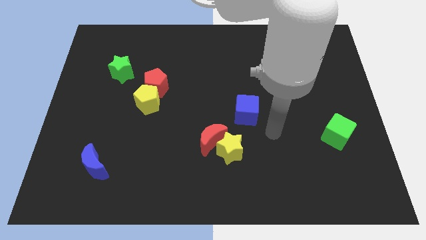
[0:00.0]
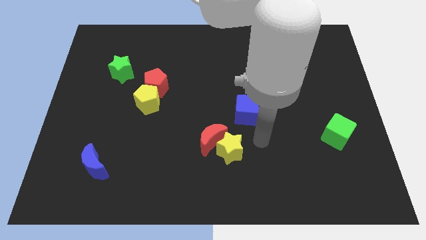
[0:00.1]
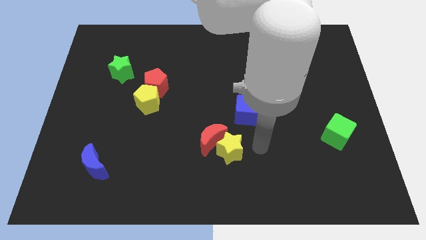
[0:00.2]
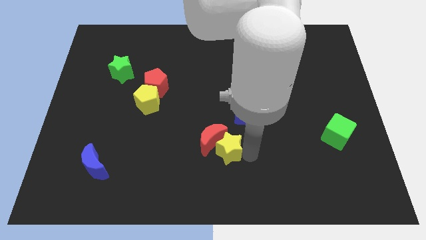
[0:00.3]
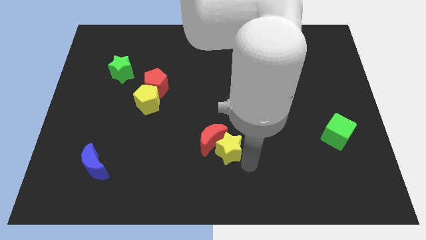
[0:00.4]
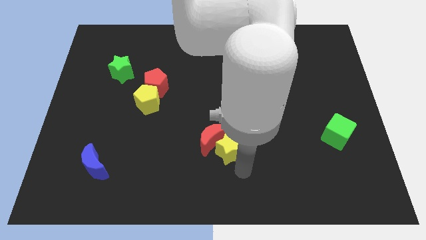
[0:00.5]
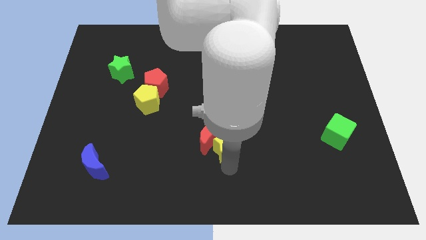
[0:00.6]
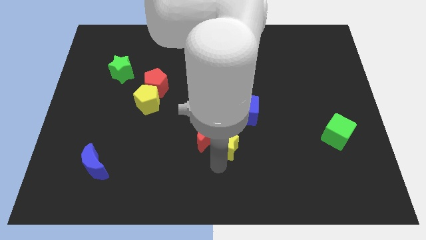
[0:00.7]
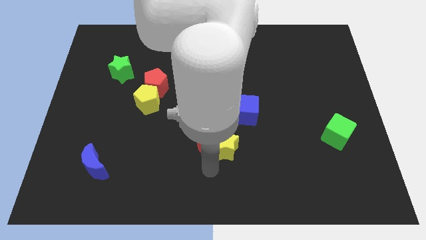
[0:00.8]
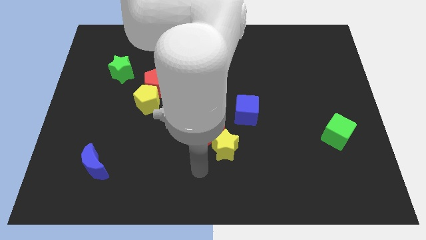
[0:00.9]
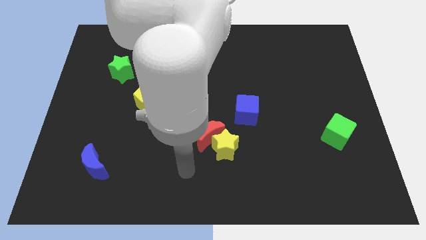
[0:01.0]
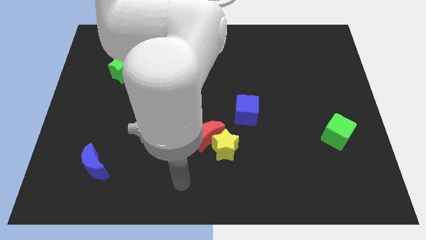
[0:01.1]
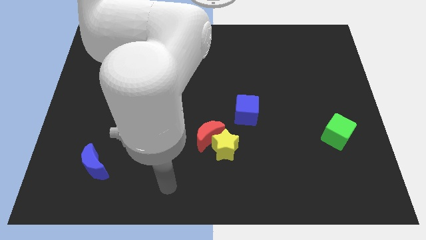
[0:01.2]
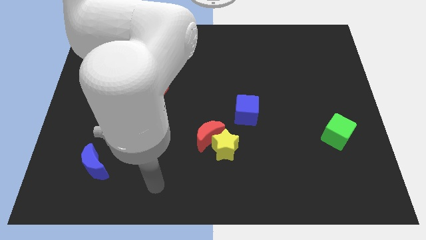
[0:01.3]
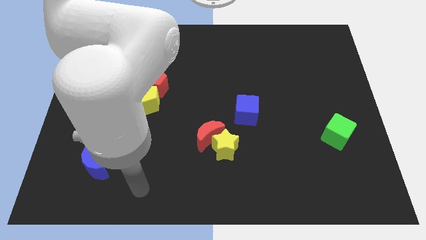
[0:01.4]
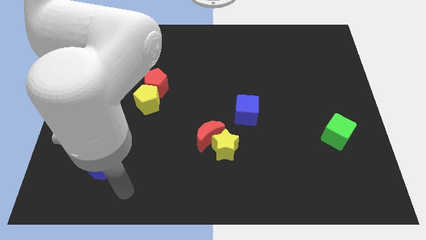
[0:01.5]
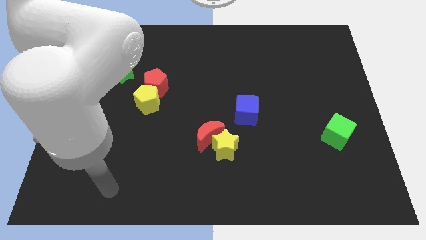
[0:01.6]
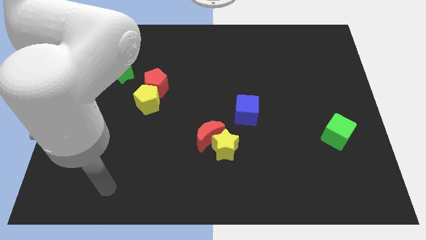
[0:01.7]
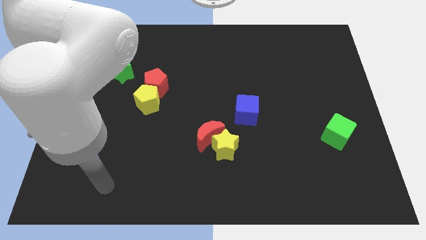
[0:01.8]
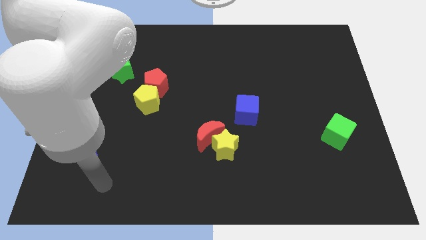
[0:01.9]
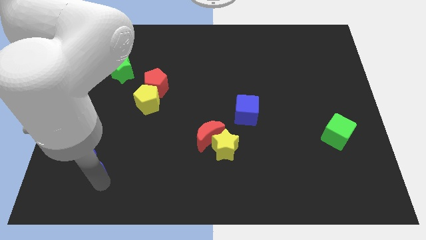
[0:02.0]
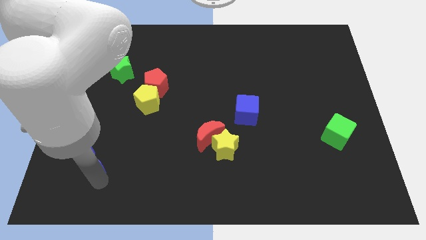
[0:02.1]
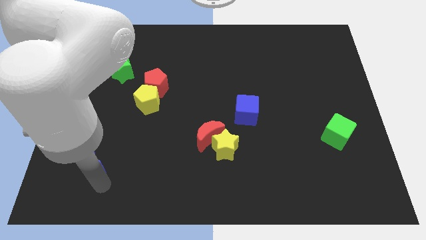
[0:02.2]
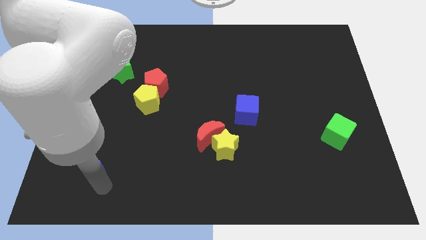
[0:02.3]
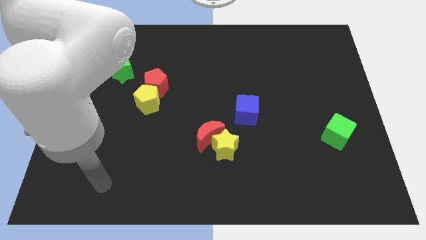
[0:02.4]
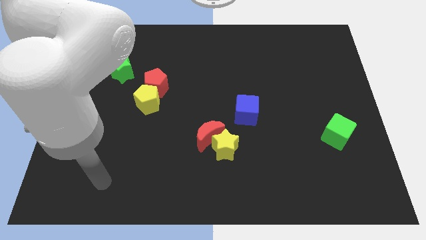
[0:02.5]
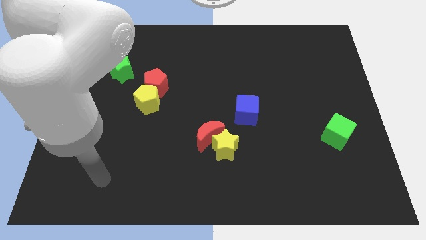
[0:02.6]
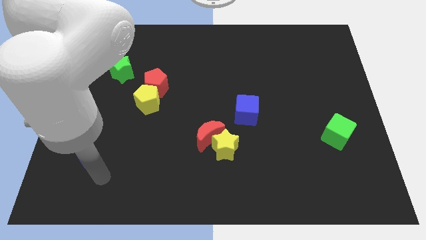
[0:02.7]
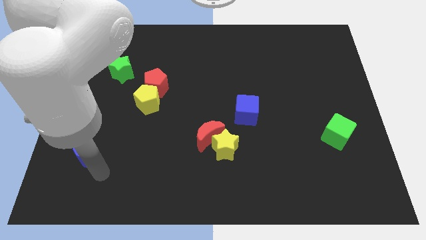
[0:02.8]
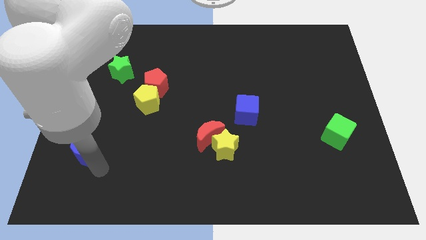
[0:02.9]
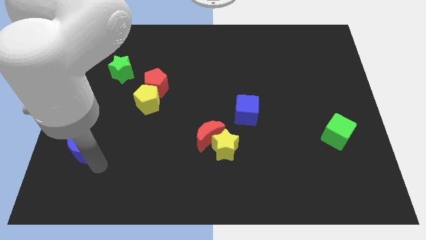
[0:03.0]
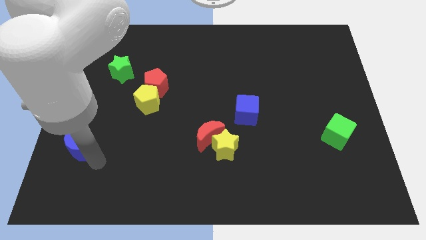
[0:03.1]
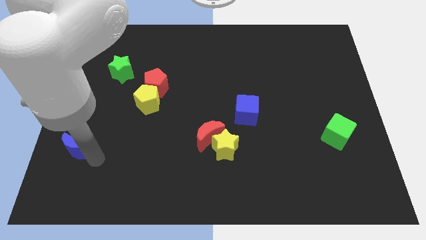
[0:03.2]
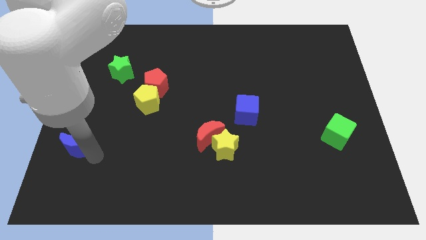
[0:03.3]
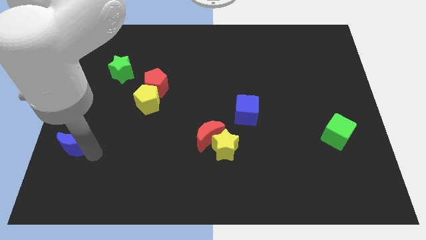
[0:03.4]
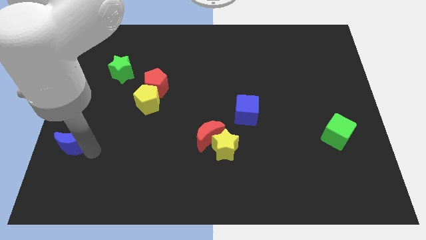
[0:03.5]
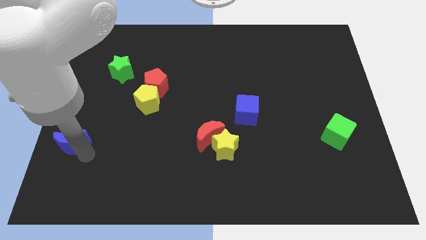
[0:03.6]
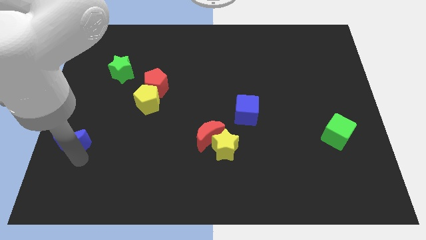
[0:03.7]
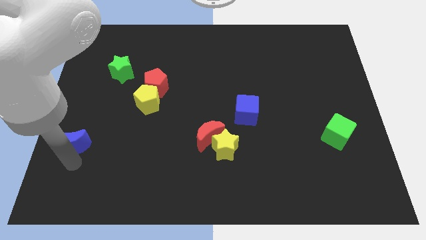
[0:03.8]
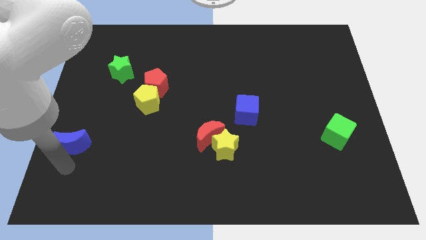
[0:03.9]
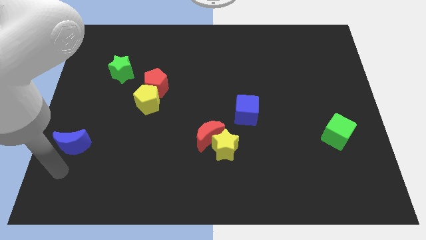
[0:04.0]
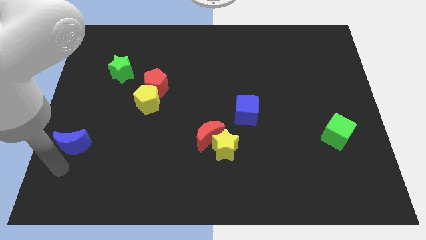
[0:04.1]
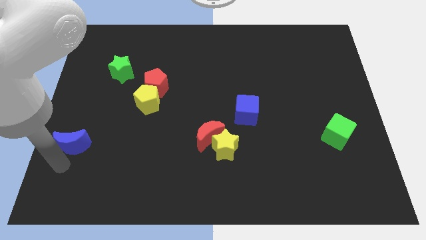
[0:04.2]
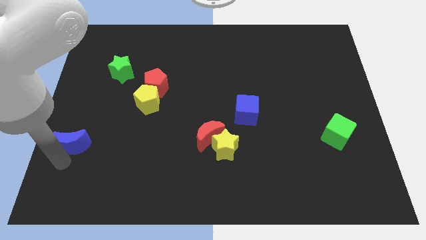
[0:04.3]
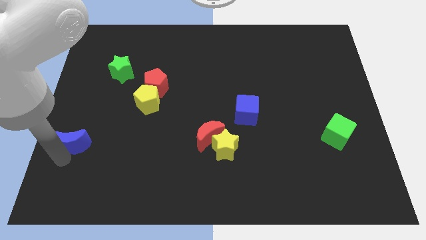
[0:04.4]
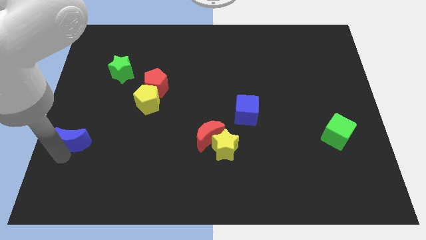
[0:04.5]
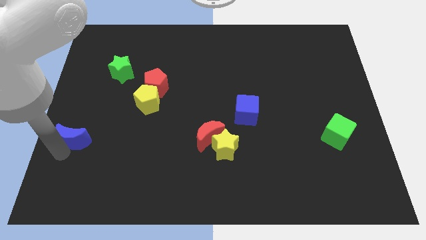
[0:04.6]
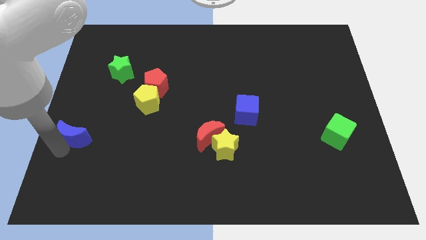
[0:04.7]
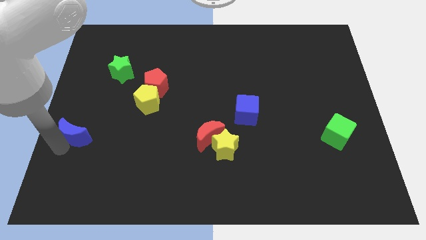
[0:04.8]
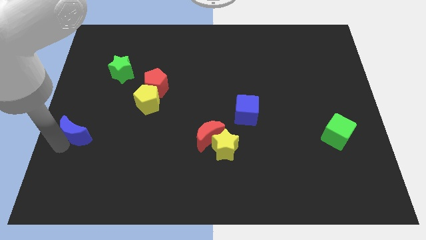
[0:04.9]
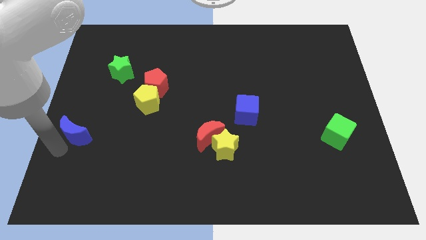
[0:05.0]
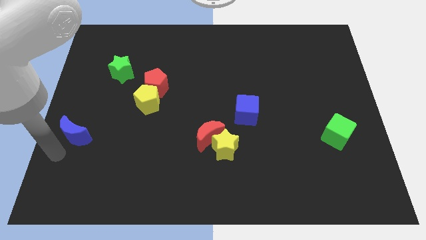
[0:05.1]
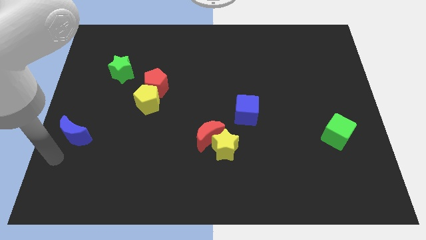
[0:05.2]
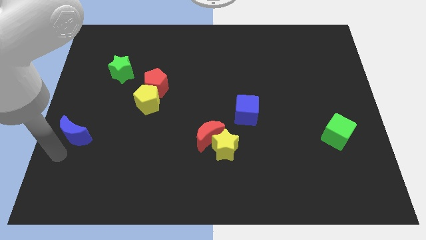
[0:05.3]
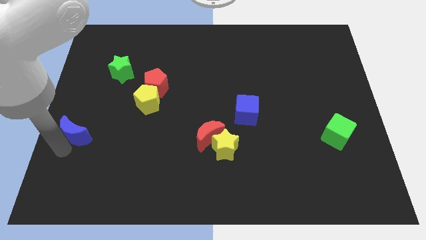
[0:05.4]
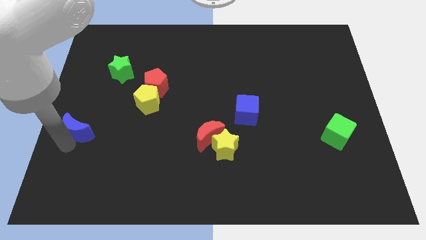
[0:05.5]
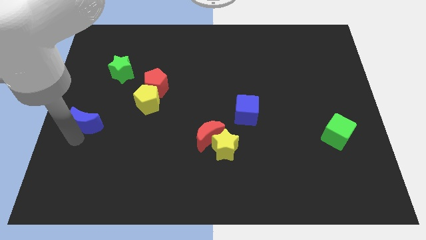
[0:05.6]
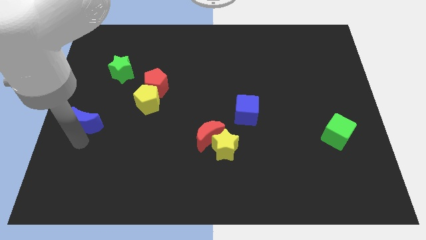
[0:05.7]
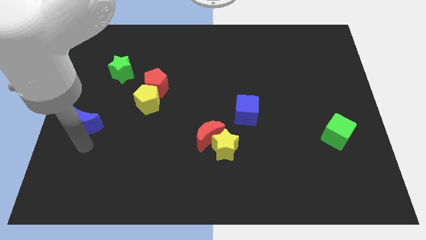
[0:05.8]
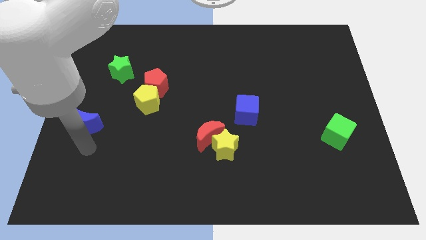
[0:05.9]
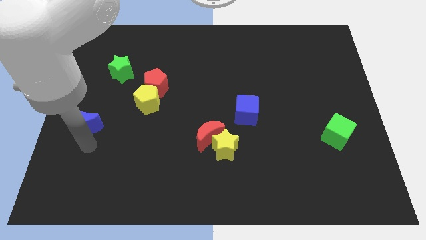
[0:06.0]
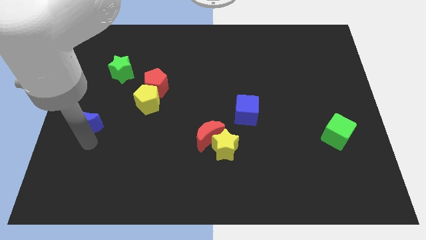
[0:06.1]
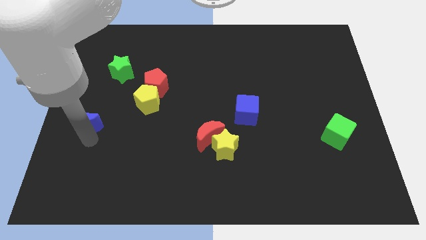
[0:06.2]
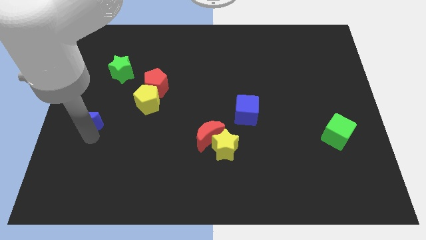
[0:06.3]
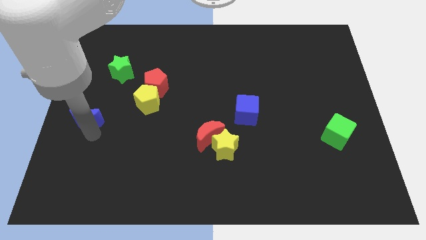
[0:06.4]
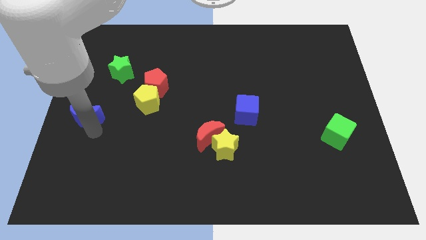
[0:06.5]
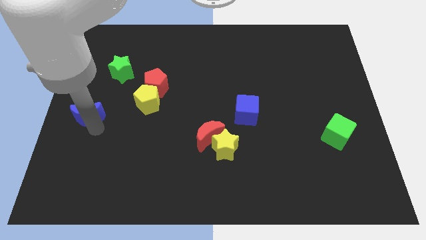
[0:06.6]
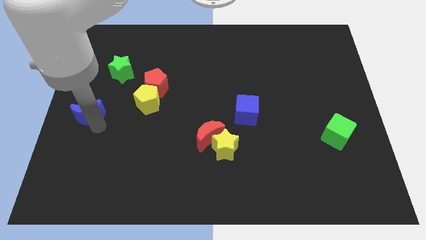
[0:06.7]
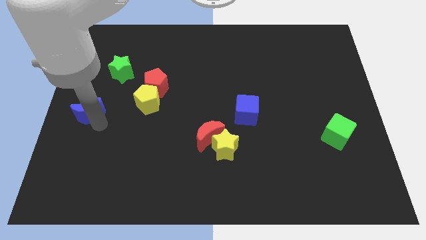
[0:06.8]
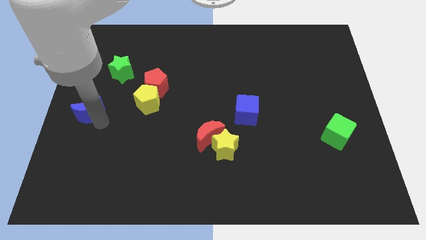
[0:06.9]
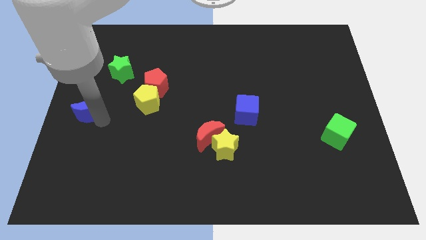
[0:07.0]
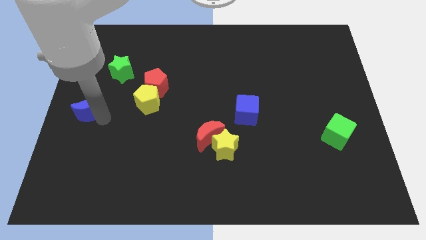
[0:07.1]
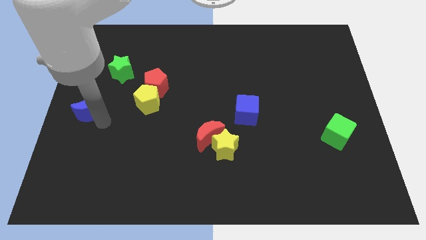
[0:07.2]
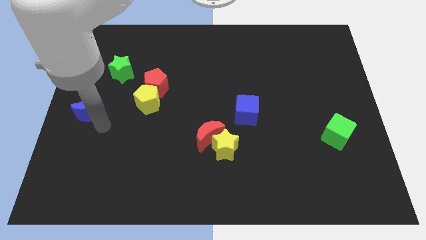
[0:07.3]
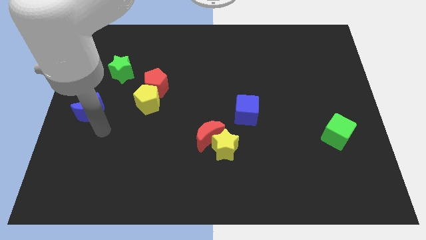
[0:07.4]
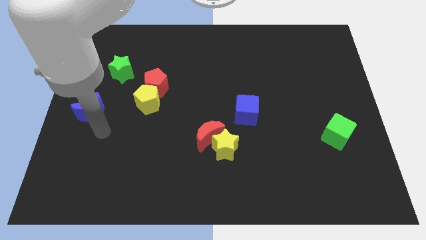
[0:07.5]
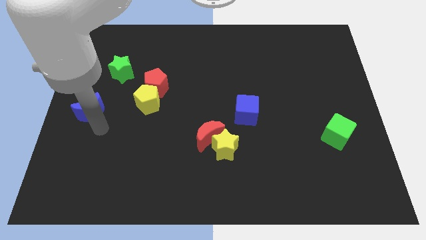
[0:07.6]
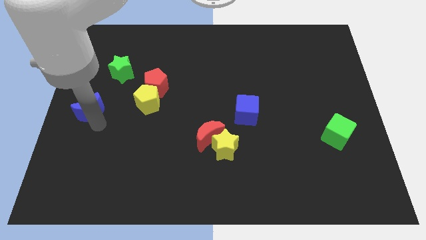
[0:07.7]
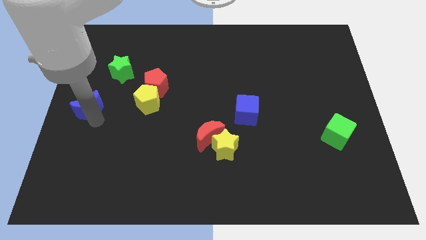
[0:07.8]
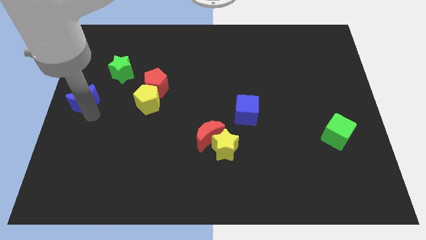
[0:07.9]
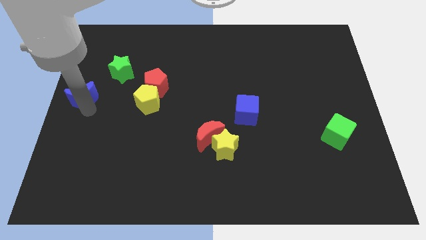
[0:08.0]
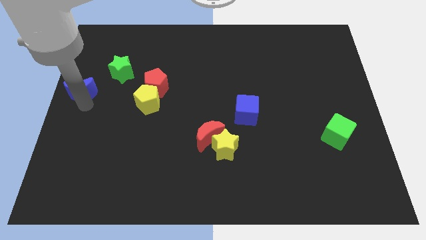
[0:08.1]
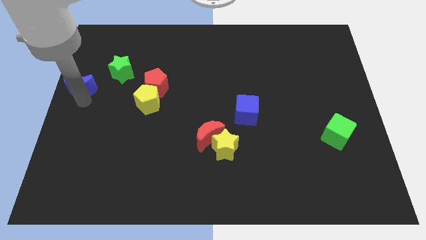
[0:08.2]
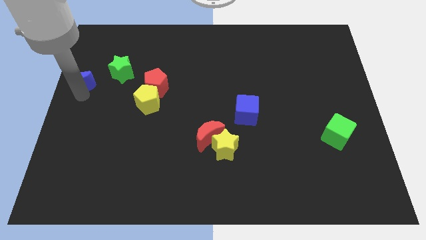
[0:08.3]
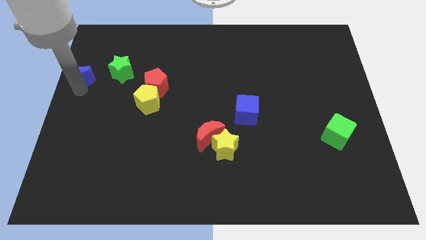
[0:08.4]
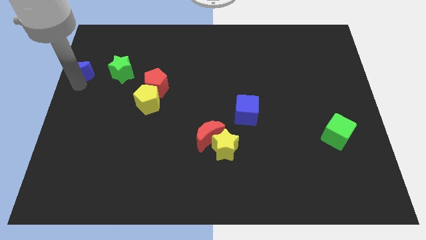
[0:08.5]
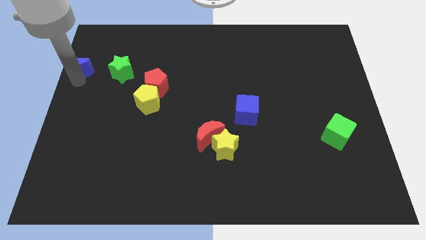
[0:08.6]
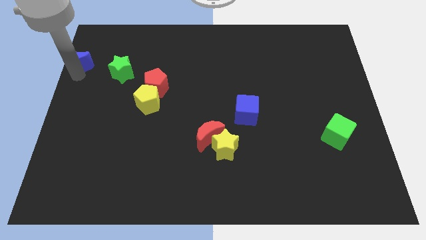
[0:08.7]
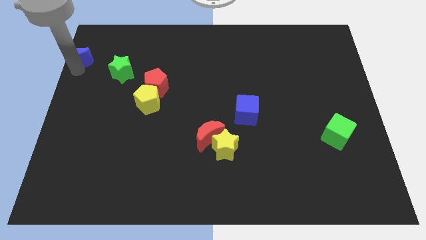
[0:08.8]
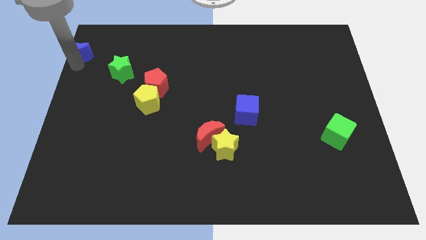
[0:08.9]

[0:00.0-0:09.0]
slide the blue moon to the top left of the board
